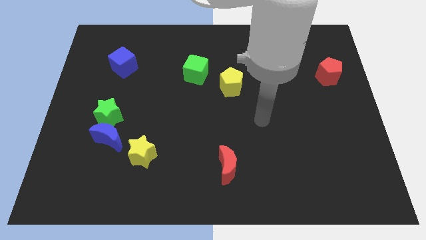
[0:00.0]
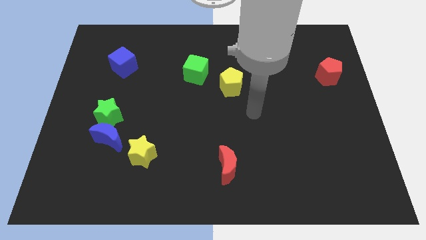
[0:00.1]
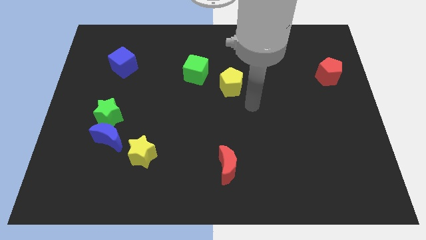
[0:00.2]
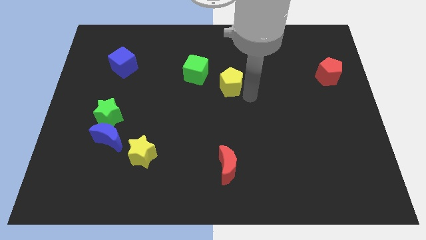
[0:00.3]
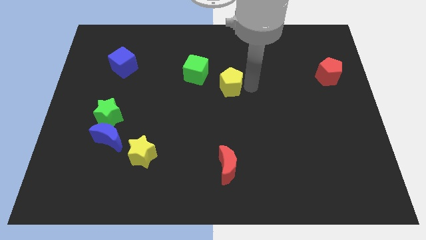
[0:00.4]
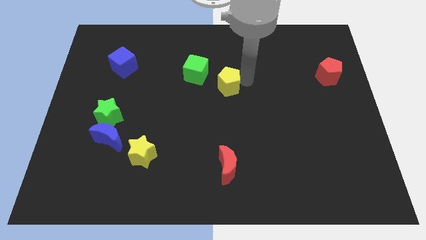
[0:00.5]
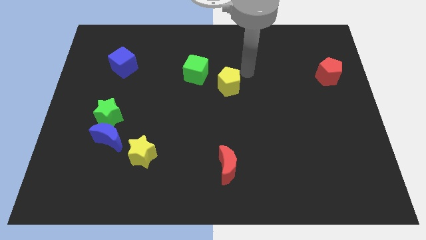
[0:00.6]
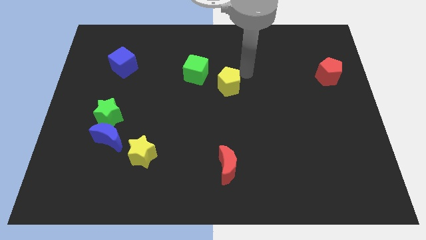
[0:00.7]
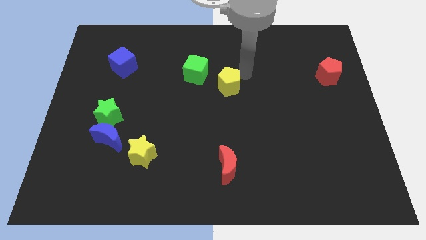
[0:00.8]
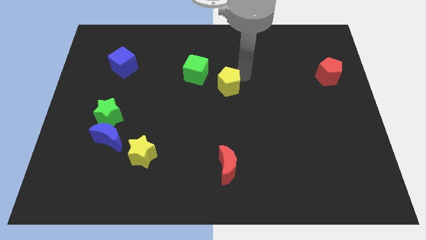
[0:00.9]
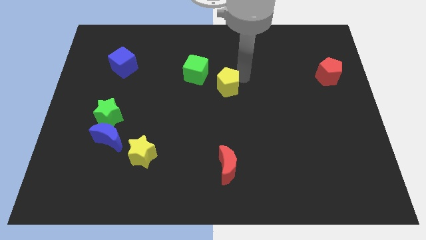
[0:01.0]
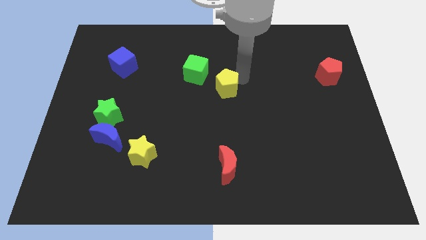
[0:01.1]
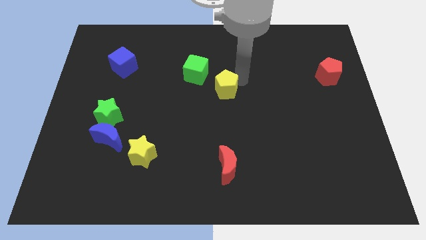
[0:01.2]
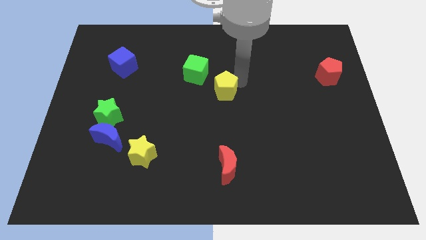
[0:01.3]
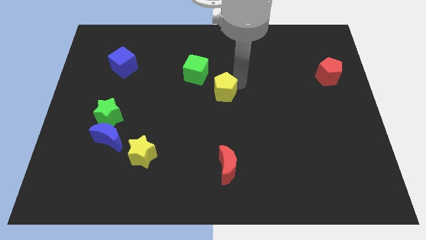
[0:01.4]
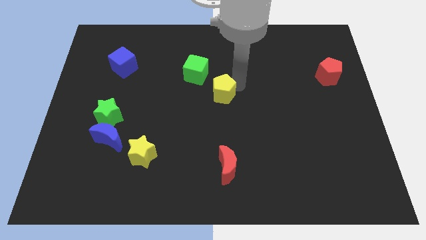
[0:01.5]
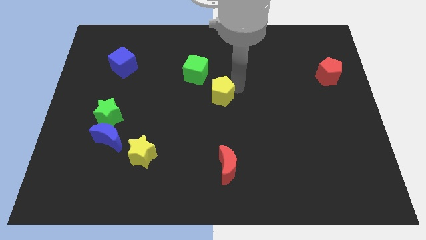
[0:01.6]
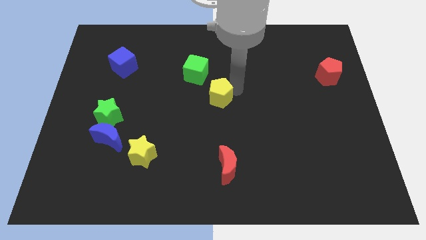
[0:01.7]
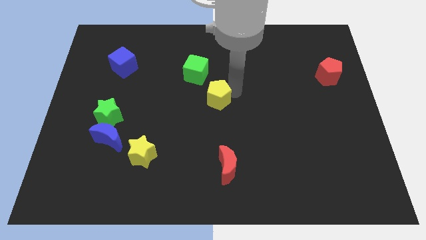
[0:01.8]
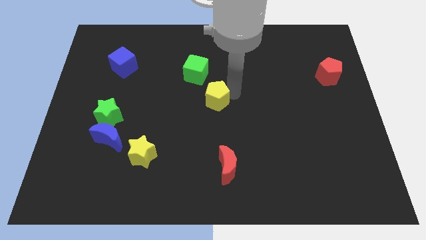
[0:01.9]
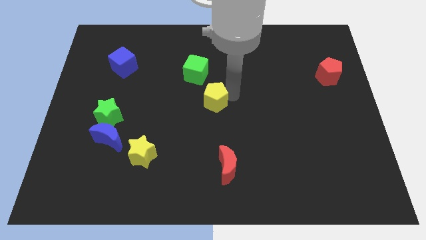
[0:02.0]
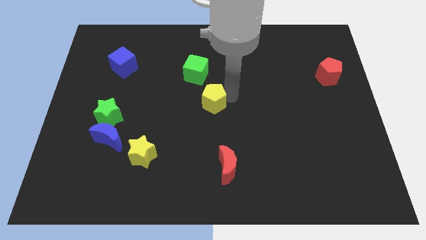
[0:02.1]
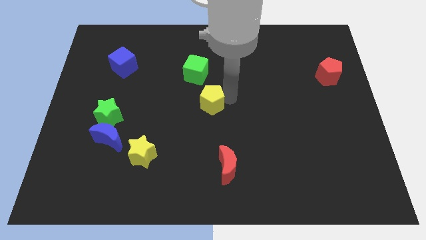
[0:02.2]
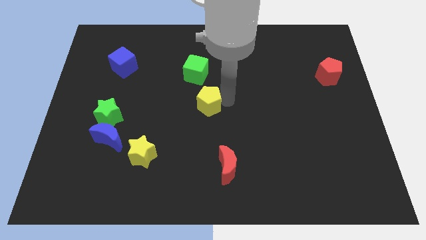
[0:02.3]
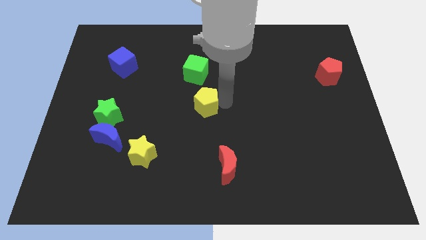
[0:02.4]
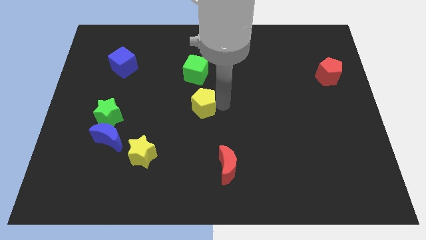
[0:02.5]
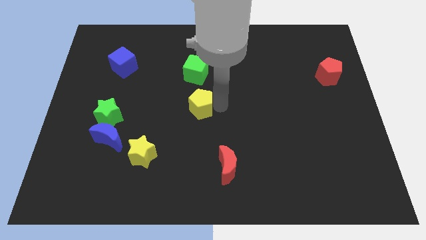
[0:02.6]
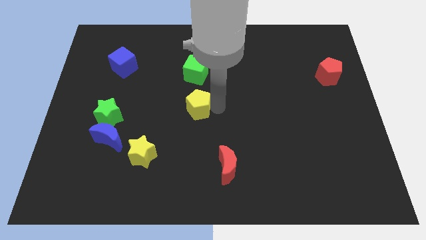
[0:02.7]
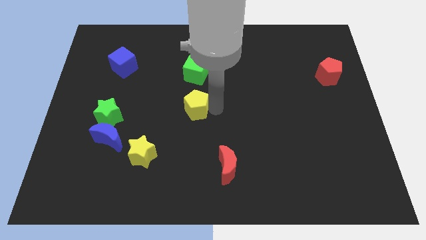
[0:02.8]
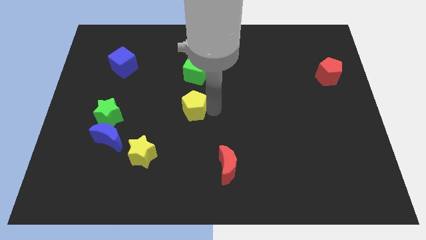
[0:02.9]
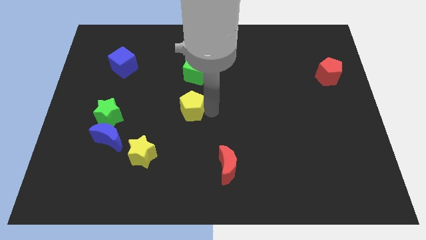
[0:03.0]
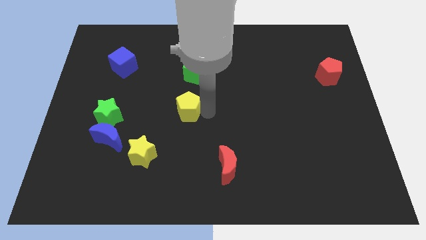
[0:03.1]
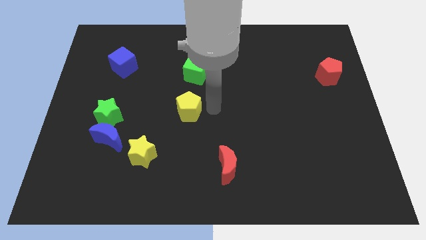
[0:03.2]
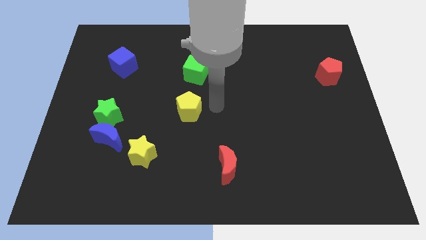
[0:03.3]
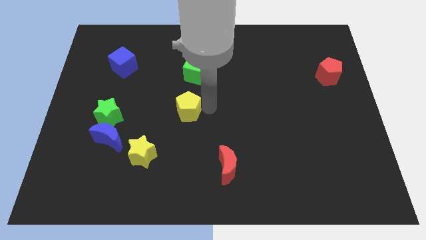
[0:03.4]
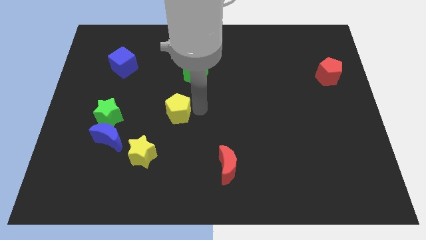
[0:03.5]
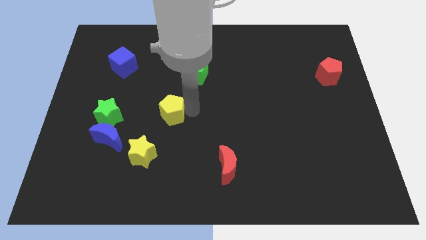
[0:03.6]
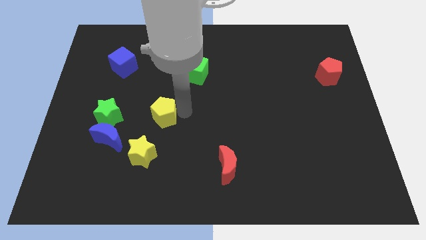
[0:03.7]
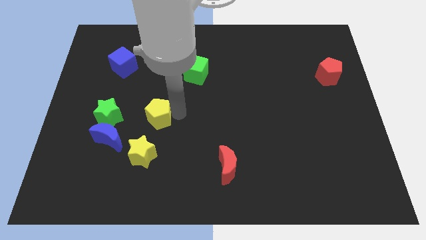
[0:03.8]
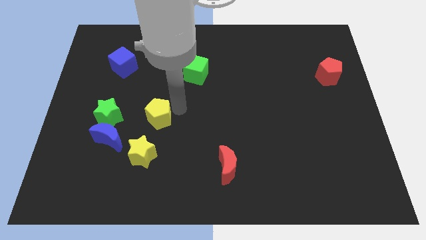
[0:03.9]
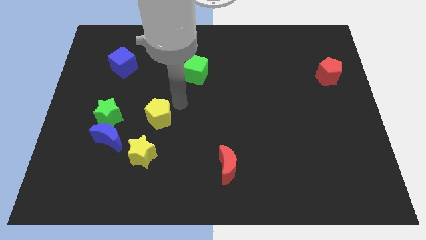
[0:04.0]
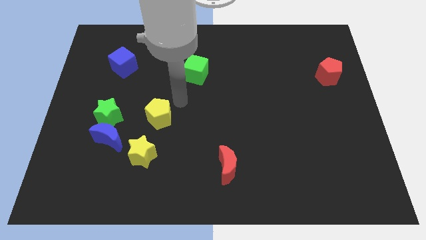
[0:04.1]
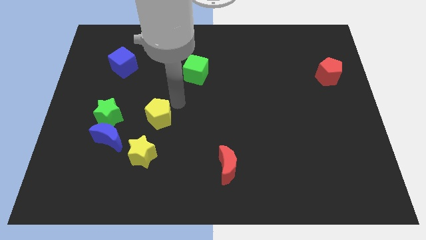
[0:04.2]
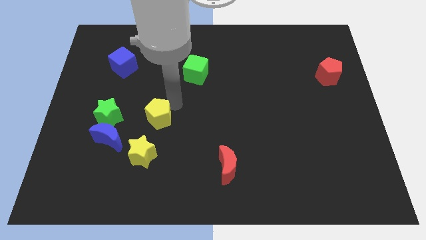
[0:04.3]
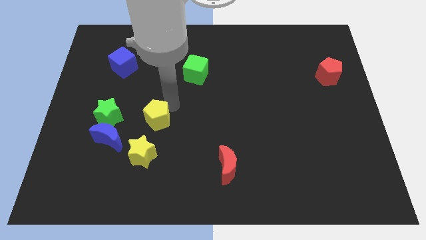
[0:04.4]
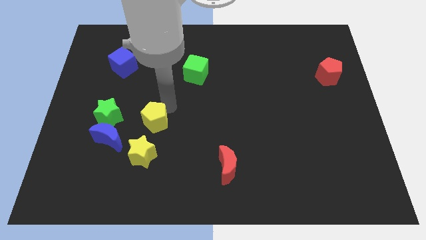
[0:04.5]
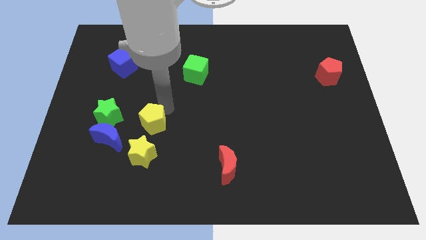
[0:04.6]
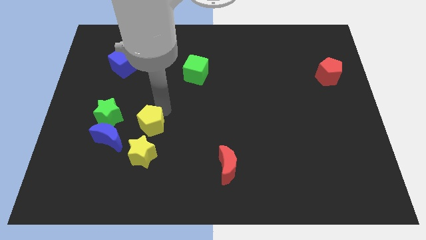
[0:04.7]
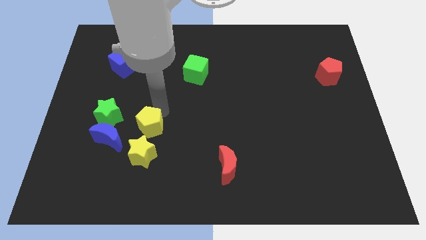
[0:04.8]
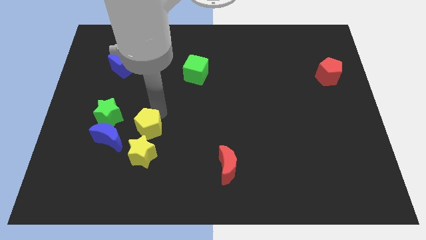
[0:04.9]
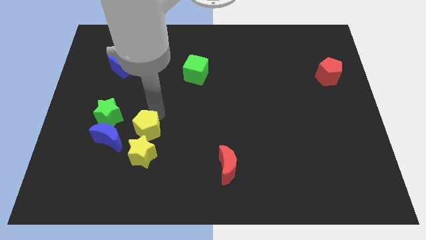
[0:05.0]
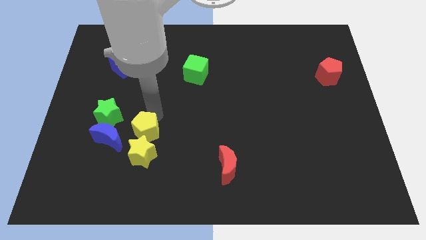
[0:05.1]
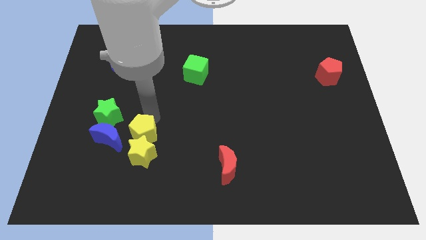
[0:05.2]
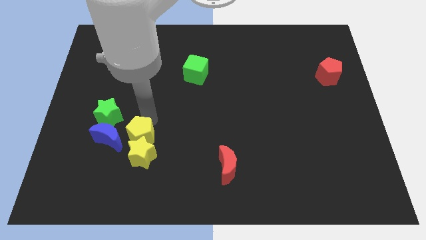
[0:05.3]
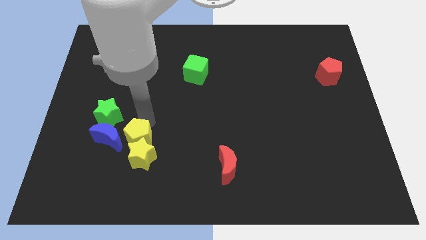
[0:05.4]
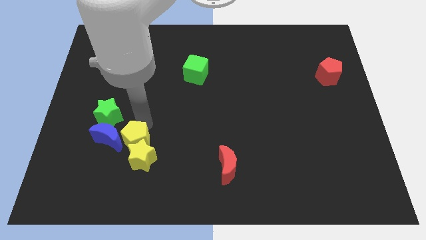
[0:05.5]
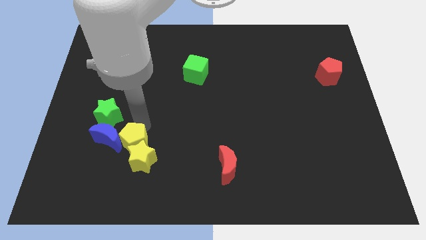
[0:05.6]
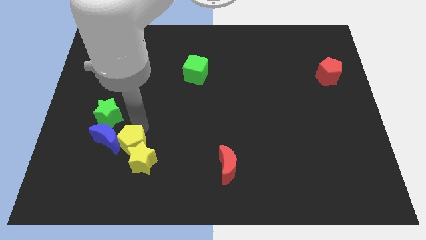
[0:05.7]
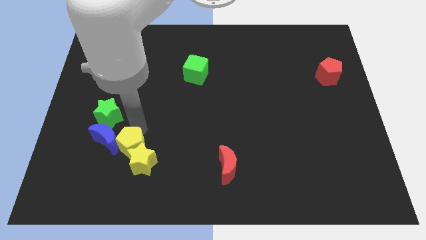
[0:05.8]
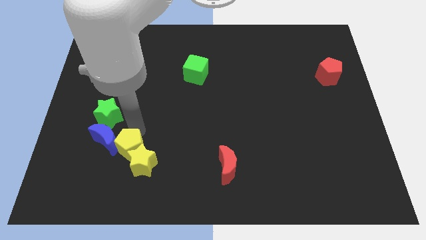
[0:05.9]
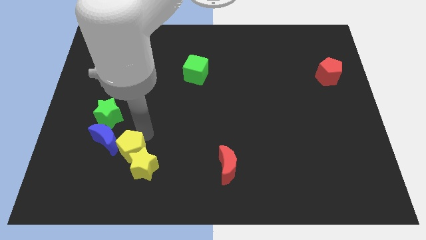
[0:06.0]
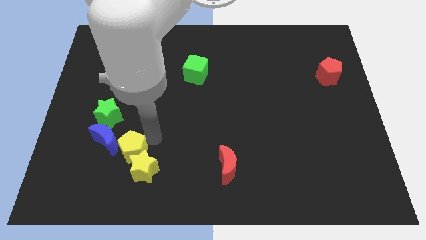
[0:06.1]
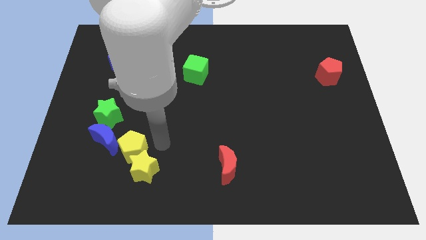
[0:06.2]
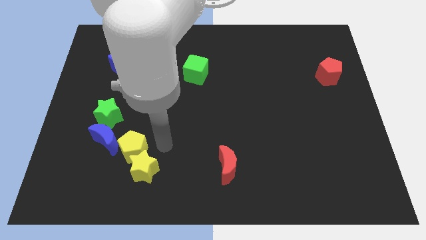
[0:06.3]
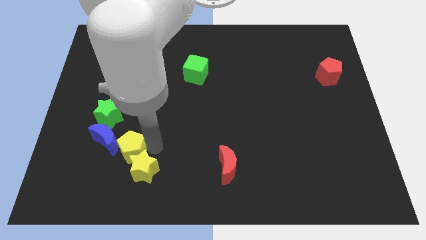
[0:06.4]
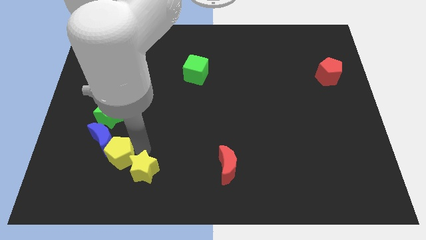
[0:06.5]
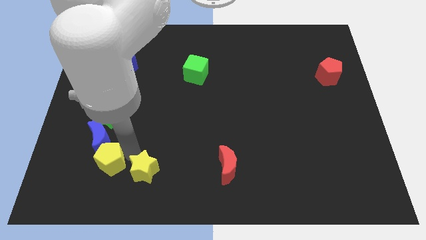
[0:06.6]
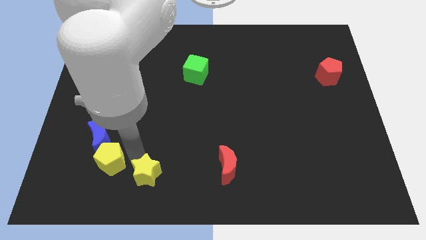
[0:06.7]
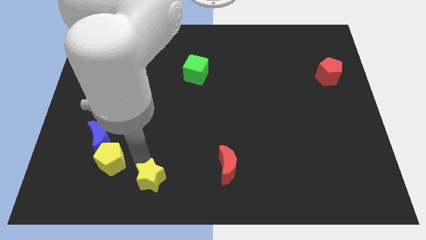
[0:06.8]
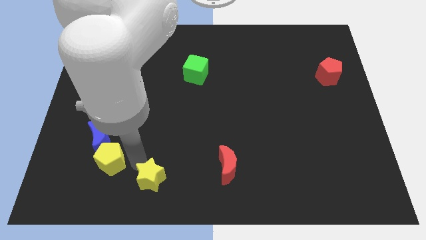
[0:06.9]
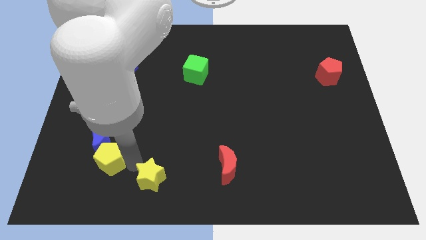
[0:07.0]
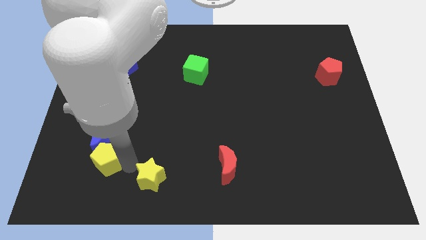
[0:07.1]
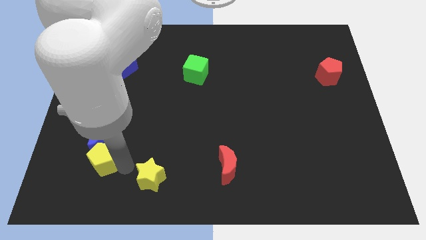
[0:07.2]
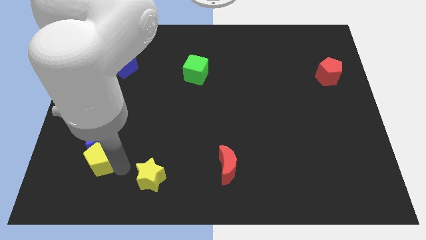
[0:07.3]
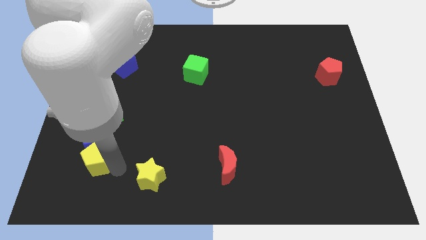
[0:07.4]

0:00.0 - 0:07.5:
put the yellow pentagon to the bottom left side of the blue moon
